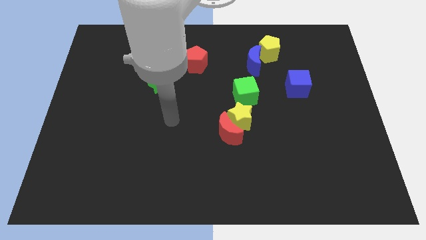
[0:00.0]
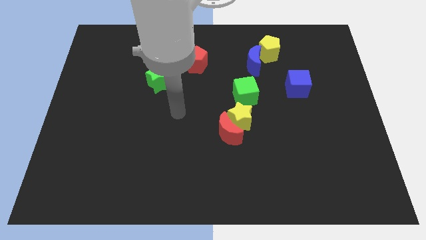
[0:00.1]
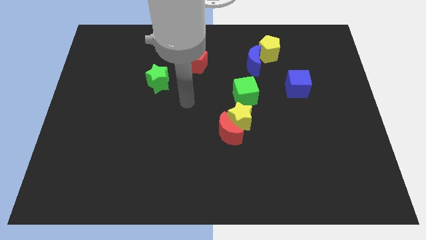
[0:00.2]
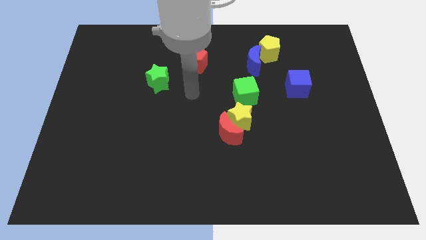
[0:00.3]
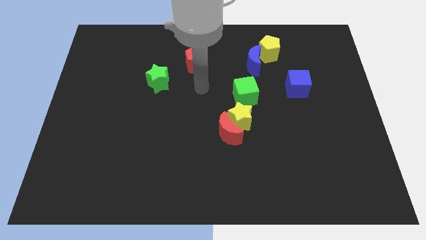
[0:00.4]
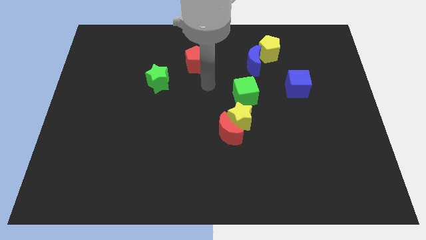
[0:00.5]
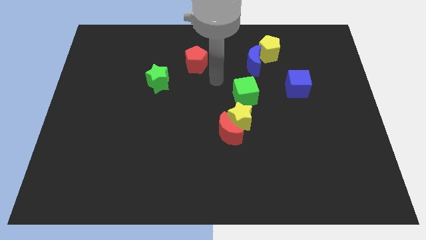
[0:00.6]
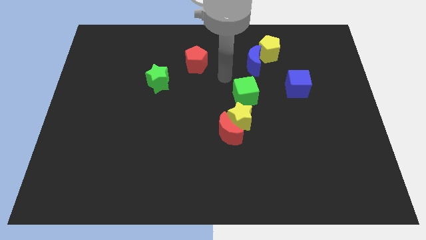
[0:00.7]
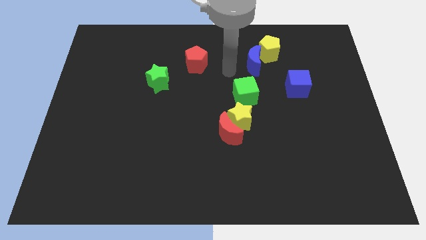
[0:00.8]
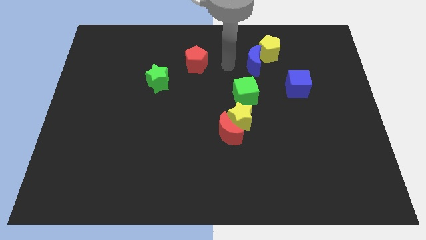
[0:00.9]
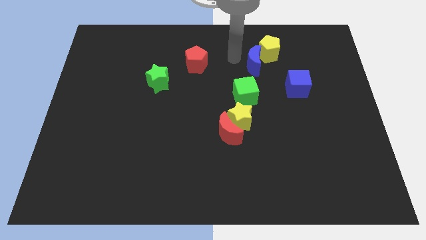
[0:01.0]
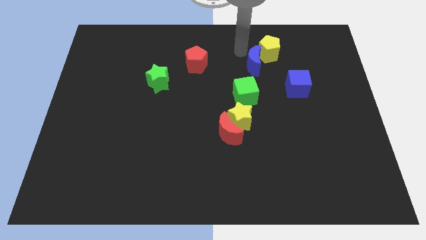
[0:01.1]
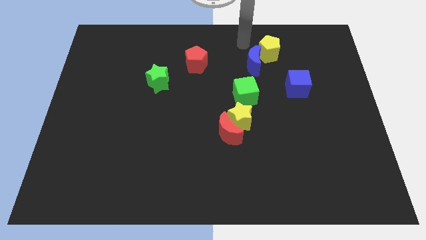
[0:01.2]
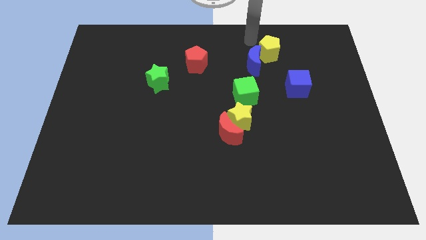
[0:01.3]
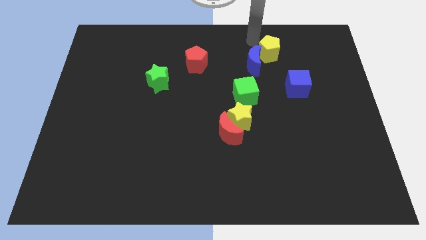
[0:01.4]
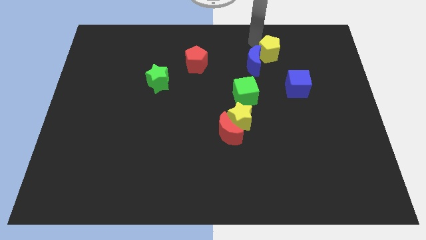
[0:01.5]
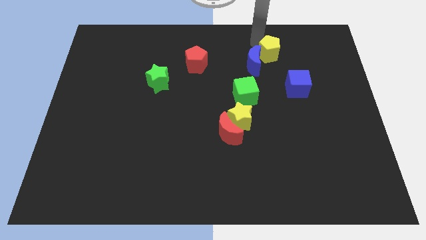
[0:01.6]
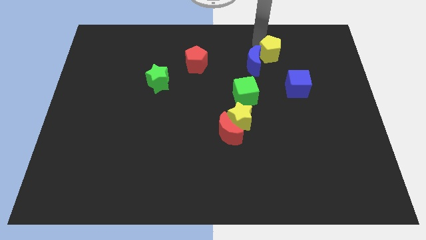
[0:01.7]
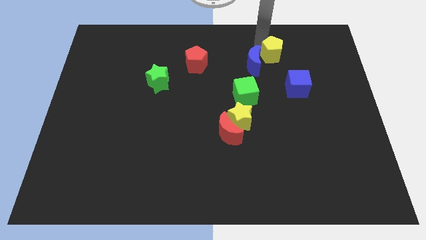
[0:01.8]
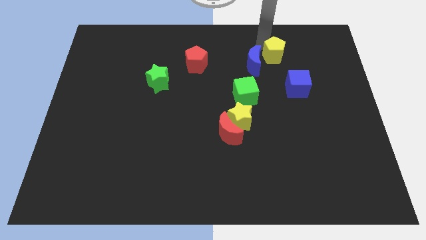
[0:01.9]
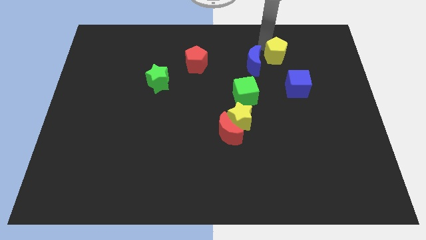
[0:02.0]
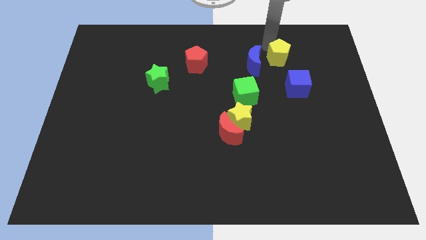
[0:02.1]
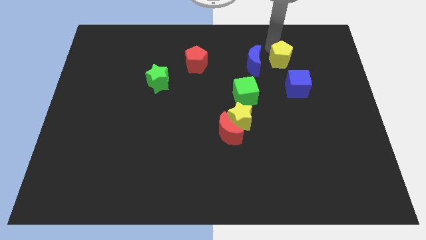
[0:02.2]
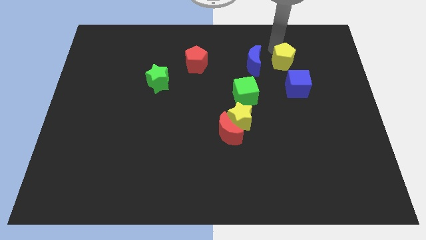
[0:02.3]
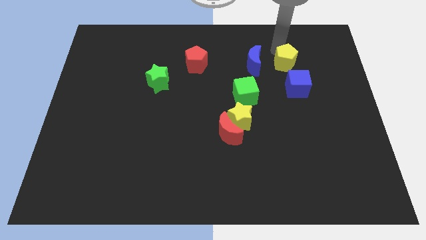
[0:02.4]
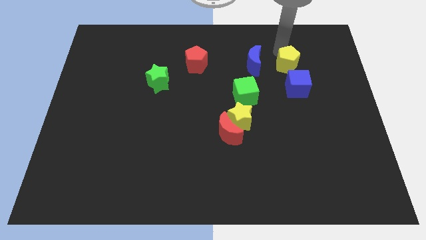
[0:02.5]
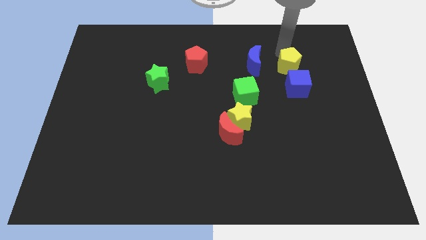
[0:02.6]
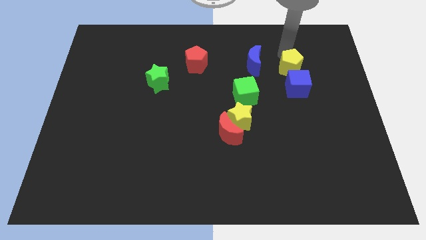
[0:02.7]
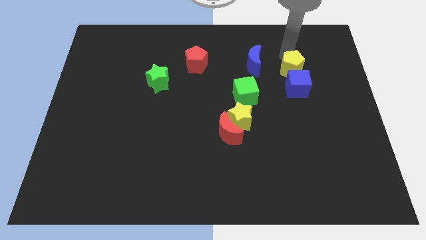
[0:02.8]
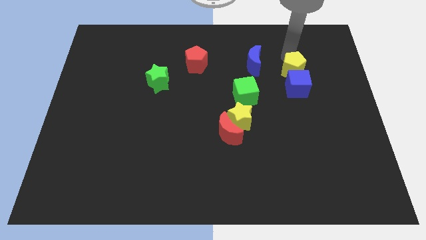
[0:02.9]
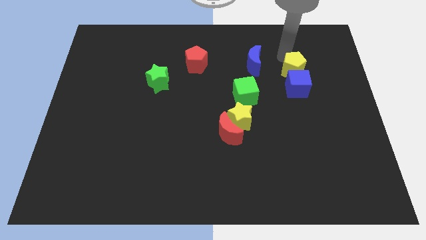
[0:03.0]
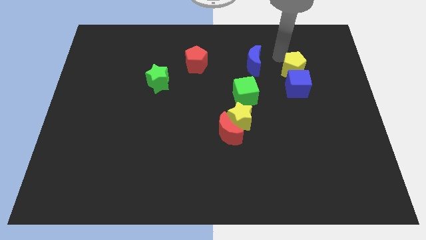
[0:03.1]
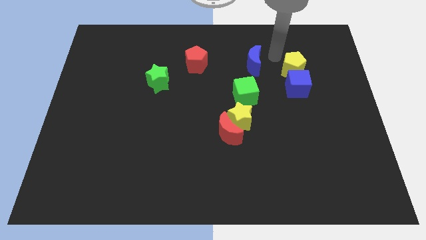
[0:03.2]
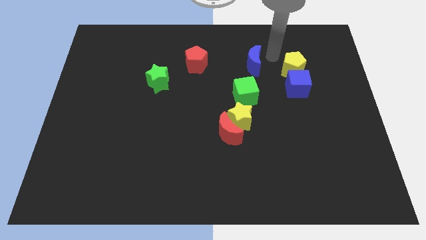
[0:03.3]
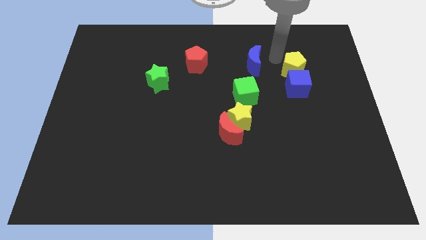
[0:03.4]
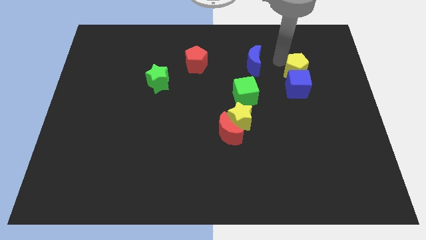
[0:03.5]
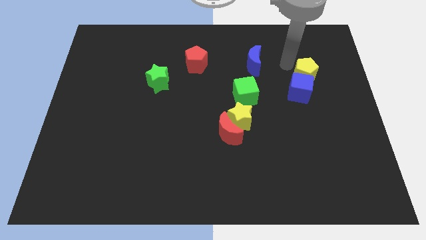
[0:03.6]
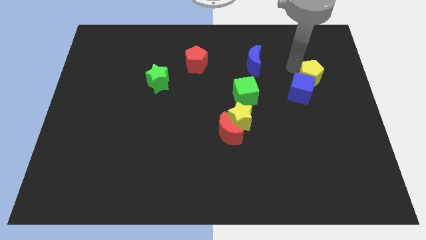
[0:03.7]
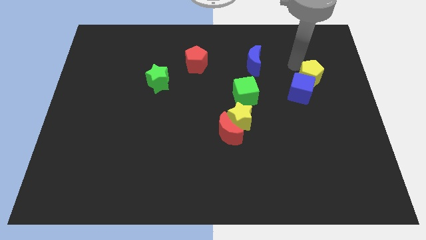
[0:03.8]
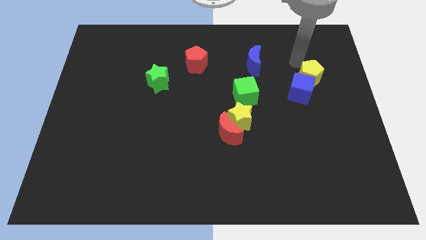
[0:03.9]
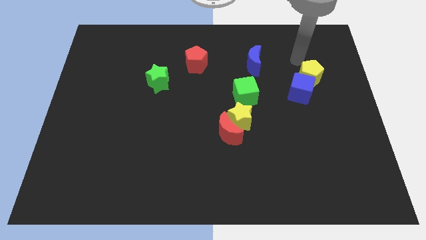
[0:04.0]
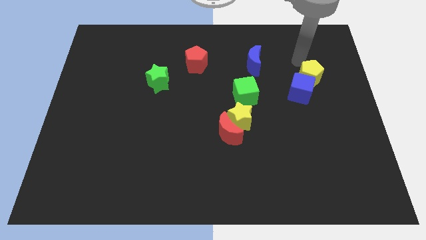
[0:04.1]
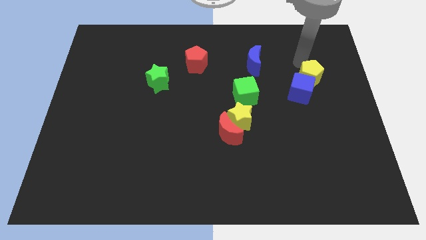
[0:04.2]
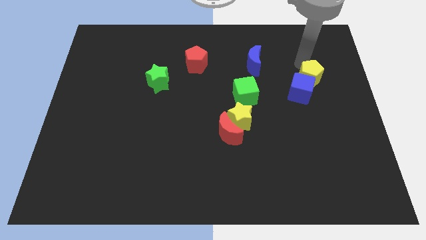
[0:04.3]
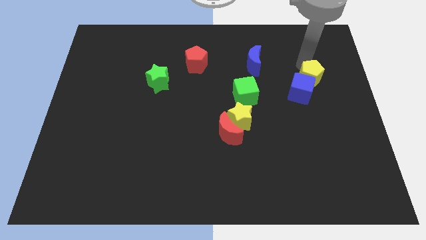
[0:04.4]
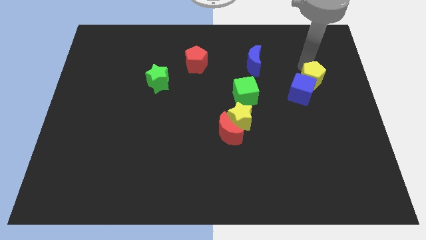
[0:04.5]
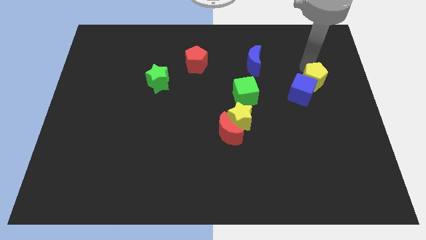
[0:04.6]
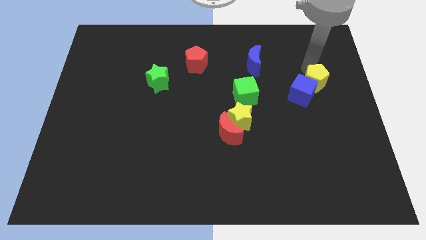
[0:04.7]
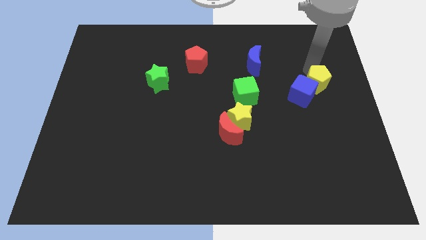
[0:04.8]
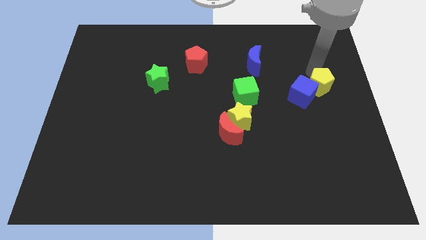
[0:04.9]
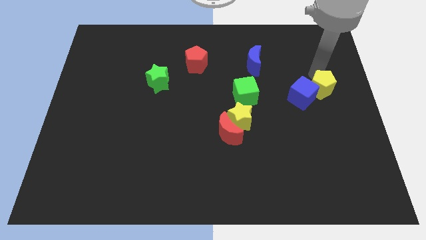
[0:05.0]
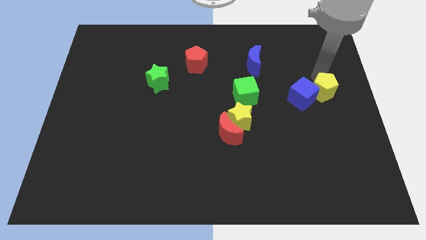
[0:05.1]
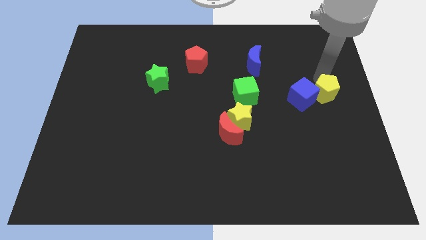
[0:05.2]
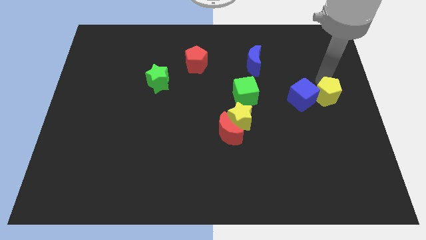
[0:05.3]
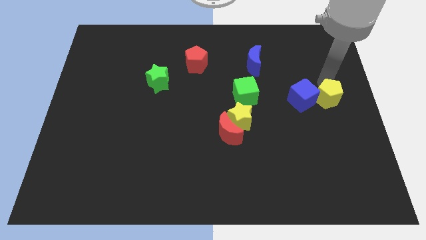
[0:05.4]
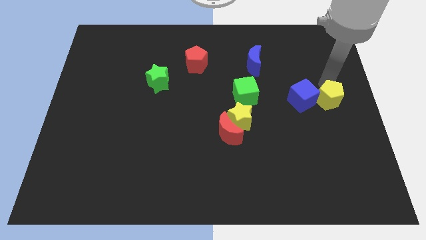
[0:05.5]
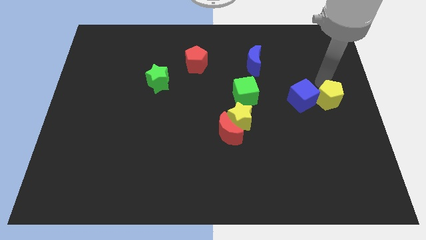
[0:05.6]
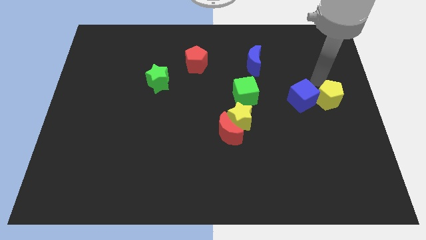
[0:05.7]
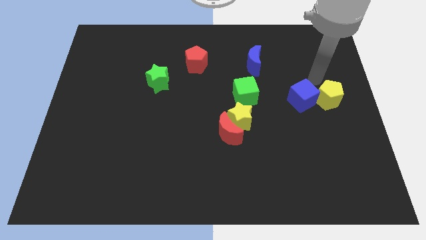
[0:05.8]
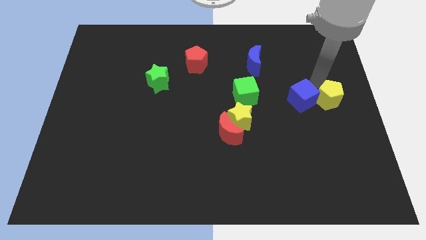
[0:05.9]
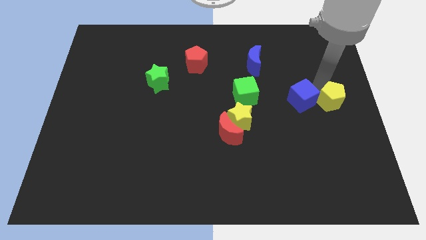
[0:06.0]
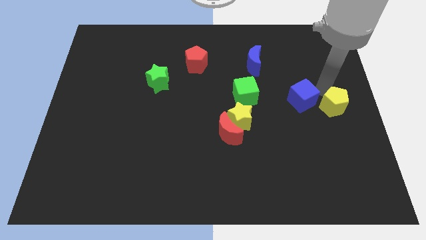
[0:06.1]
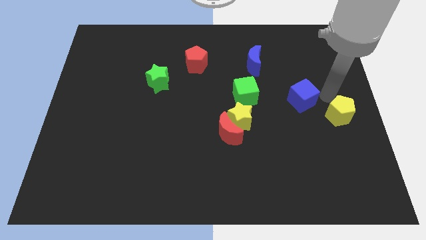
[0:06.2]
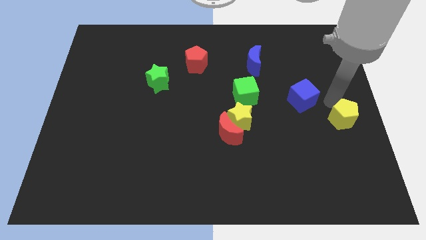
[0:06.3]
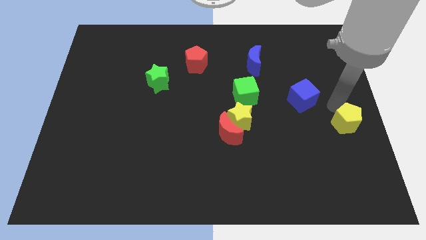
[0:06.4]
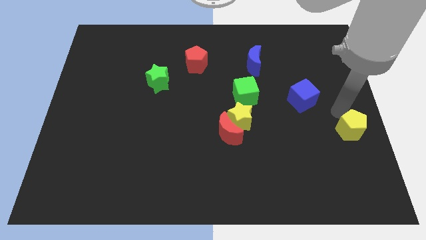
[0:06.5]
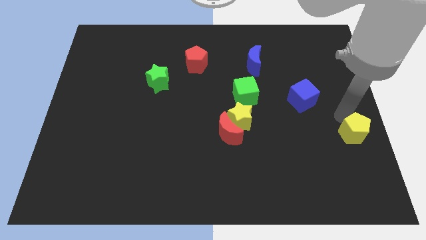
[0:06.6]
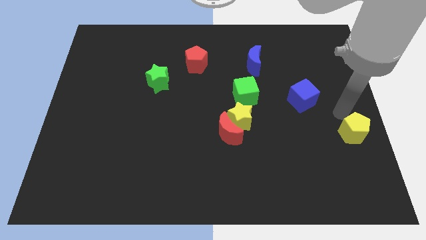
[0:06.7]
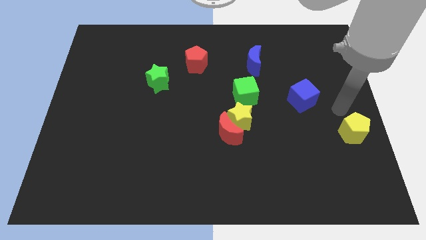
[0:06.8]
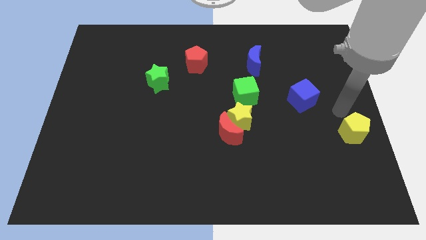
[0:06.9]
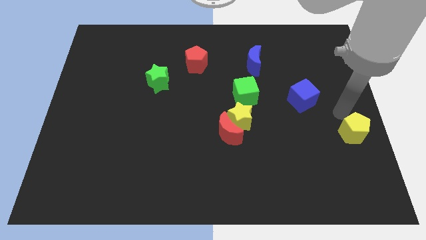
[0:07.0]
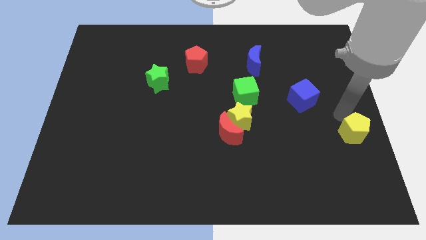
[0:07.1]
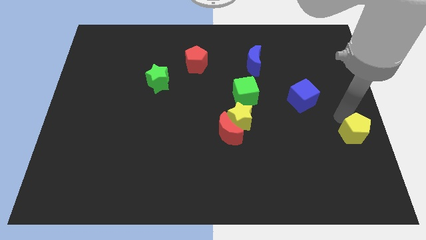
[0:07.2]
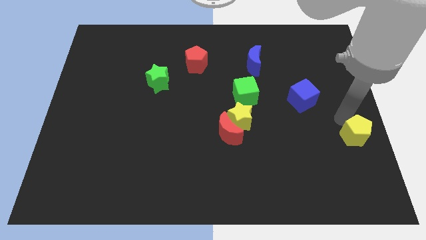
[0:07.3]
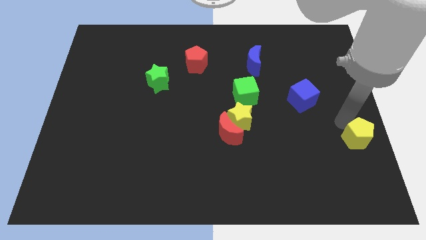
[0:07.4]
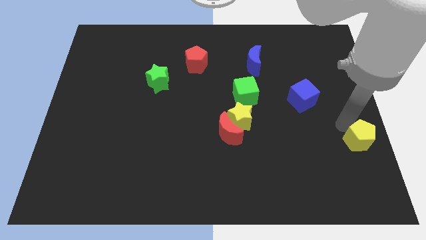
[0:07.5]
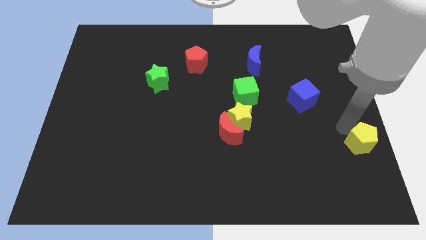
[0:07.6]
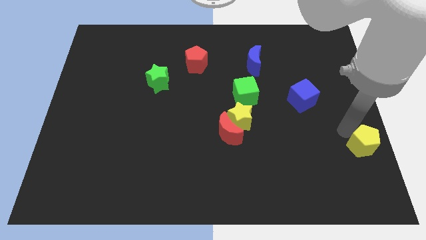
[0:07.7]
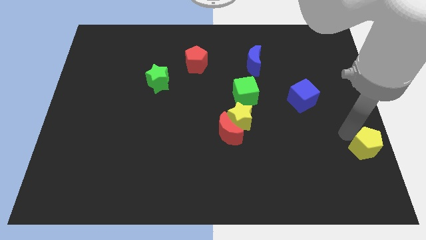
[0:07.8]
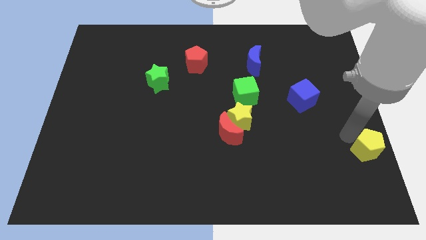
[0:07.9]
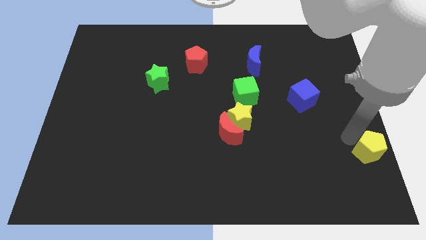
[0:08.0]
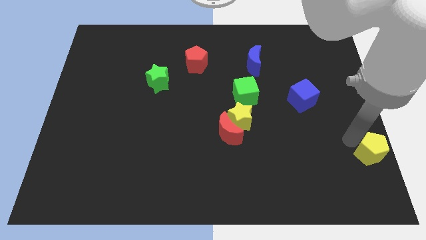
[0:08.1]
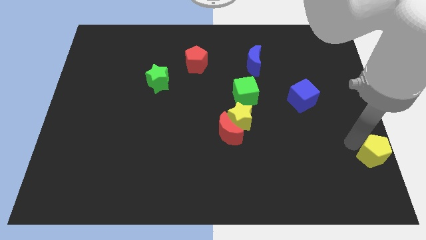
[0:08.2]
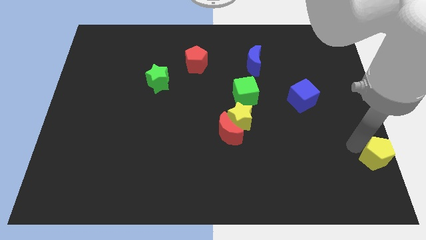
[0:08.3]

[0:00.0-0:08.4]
slide the yellow pentagon to the bottom right
